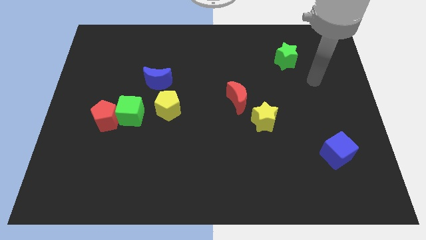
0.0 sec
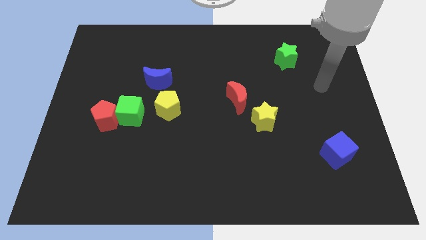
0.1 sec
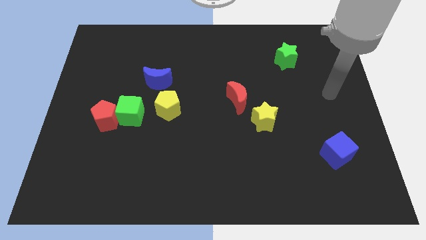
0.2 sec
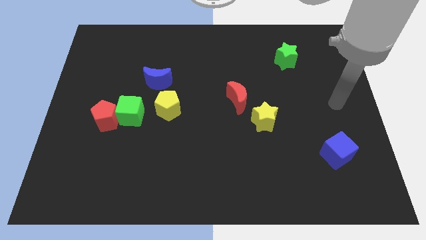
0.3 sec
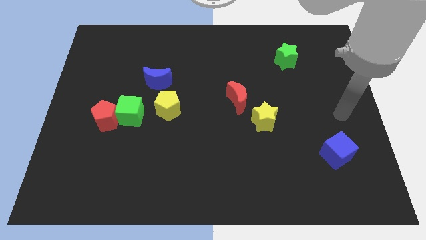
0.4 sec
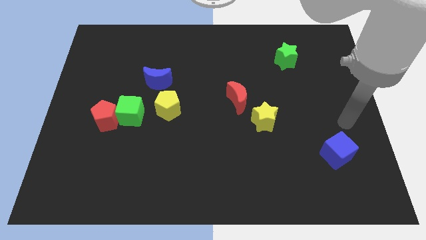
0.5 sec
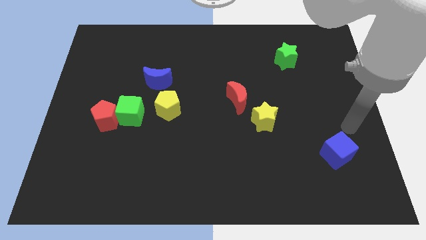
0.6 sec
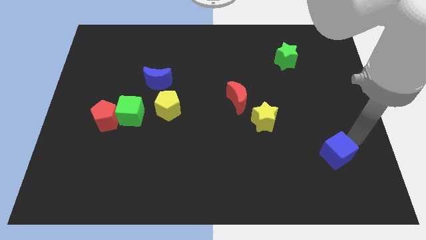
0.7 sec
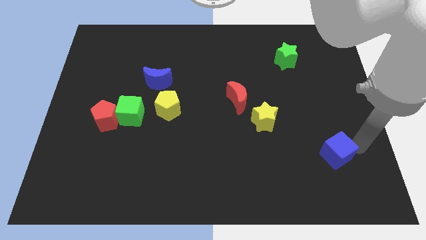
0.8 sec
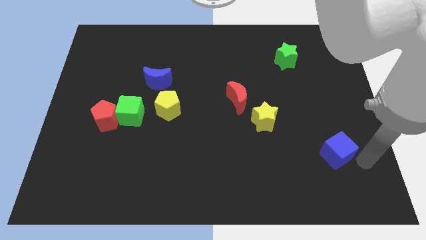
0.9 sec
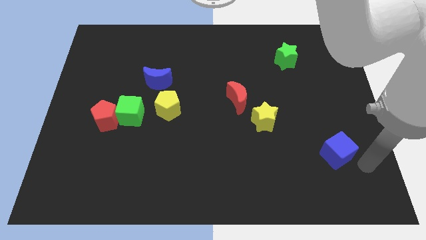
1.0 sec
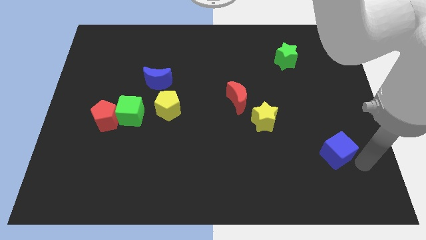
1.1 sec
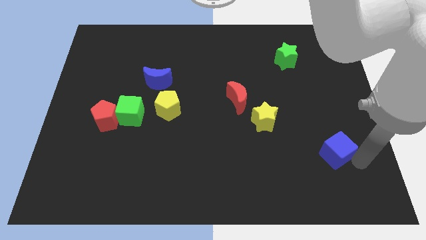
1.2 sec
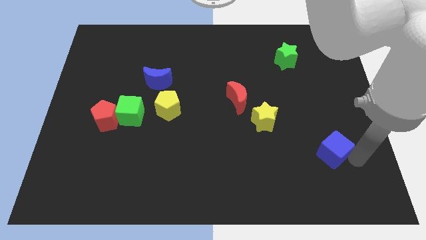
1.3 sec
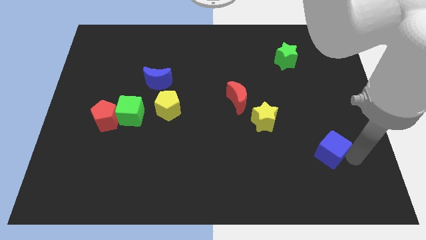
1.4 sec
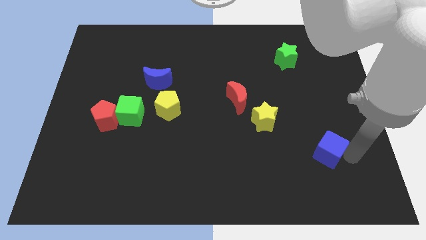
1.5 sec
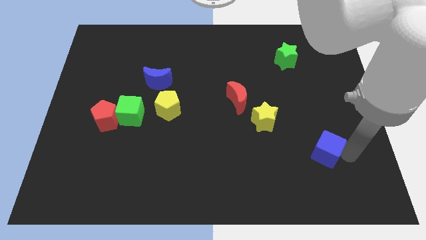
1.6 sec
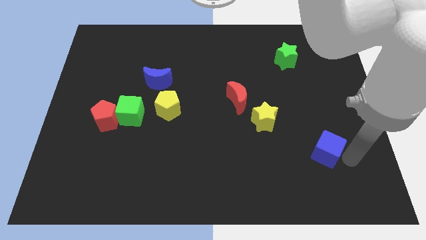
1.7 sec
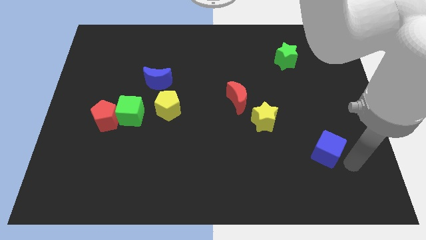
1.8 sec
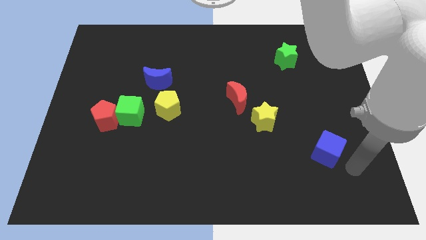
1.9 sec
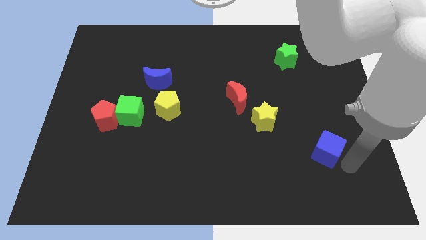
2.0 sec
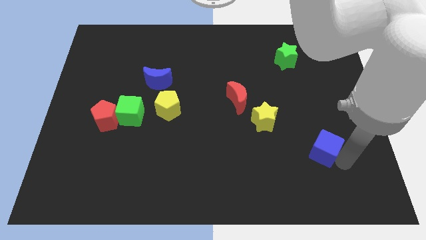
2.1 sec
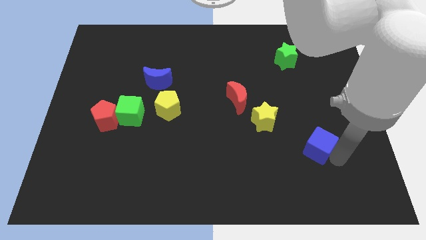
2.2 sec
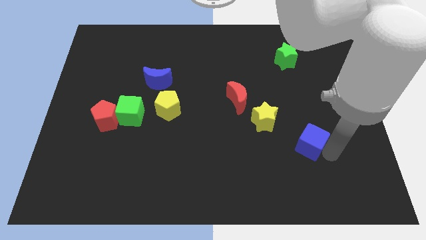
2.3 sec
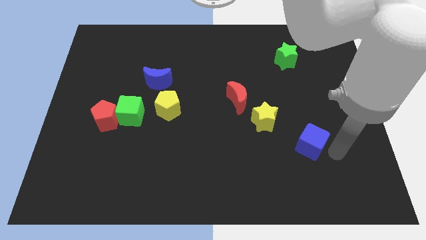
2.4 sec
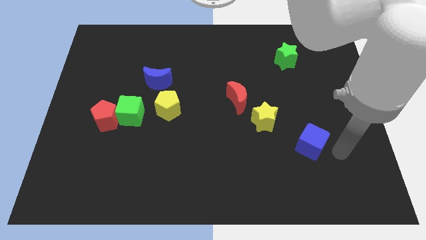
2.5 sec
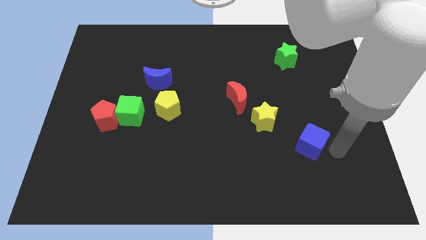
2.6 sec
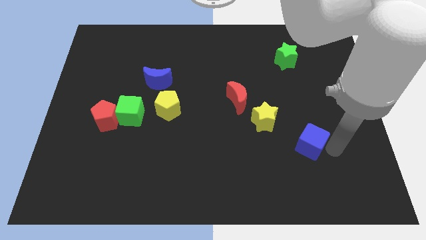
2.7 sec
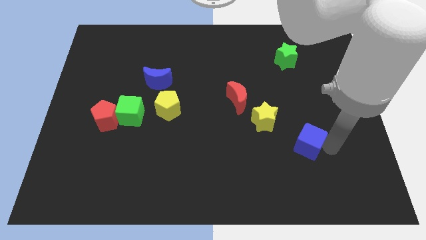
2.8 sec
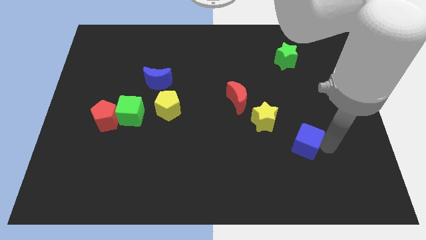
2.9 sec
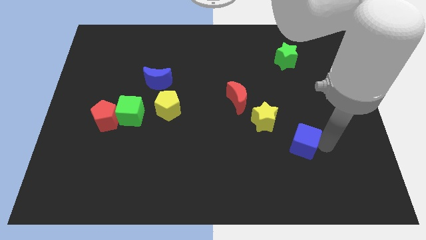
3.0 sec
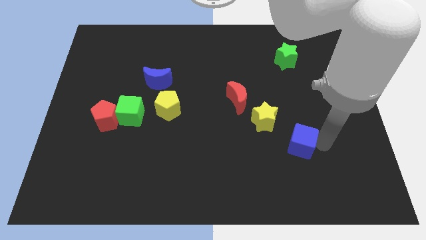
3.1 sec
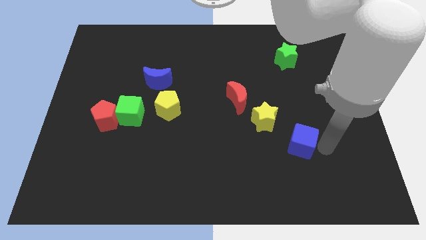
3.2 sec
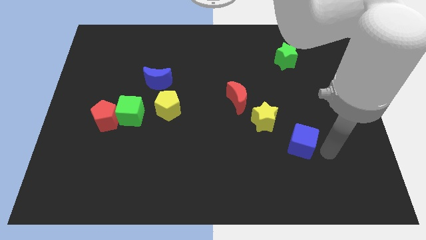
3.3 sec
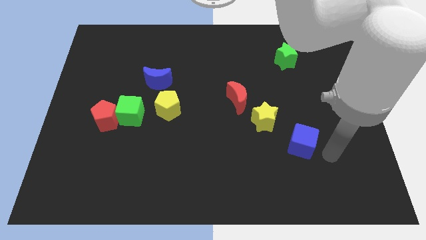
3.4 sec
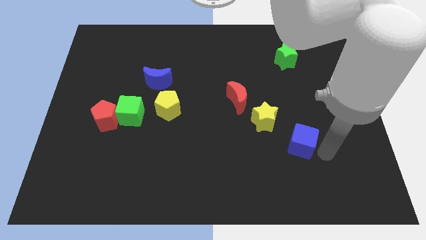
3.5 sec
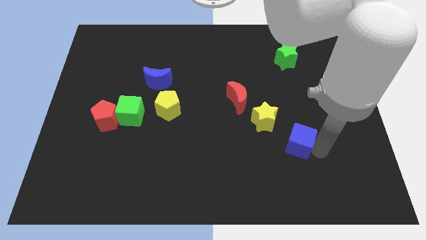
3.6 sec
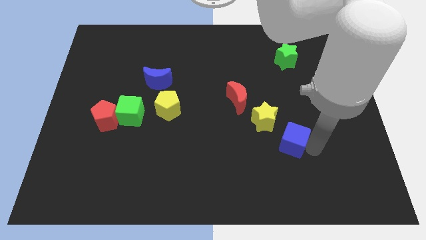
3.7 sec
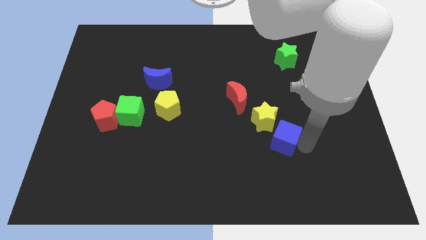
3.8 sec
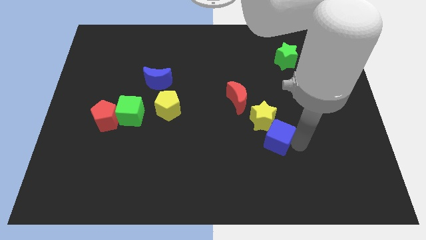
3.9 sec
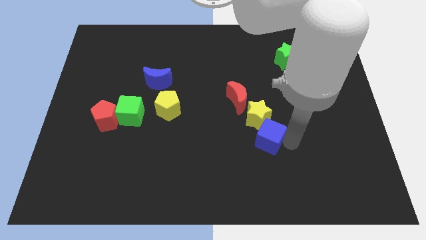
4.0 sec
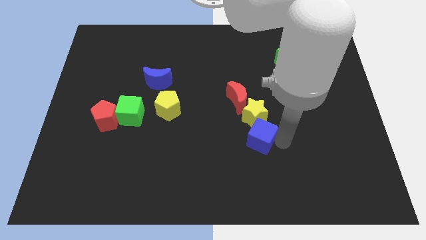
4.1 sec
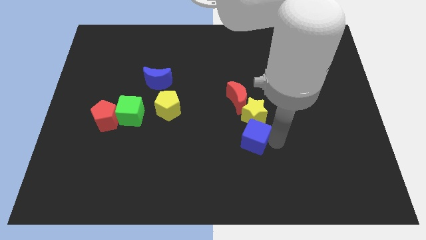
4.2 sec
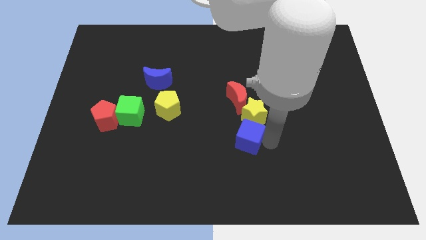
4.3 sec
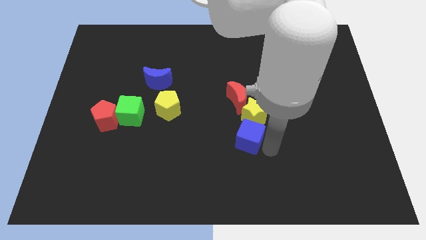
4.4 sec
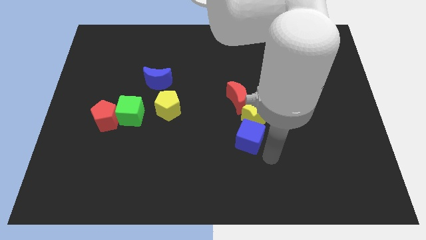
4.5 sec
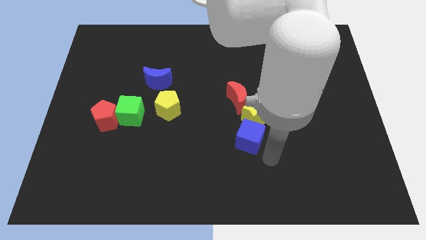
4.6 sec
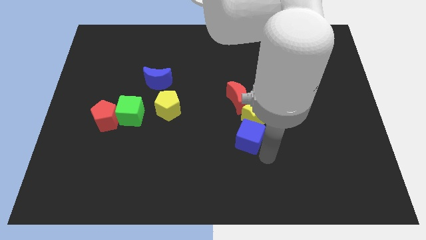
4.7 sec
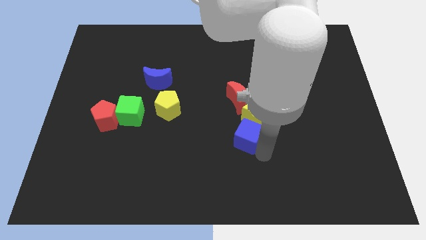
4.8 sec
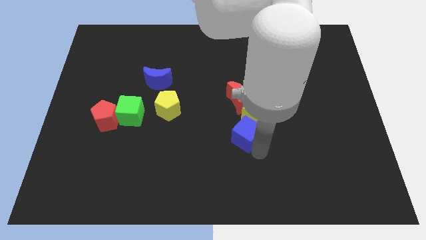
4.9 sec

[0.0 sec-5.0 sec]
put the blue cube to the middle of the board

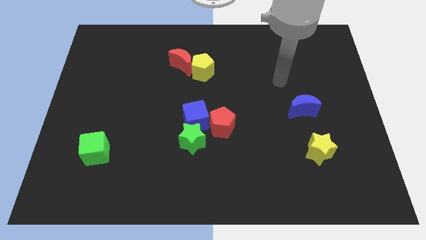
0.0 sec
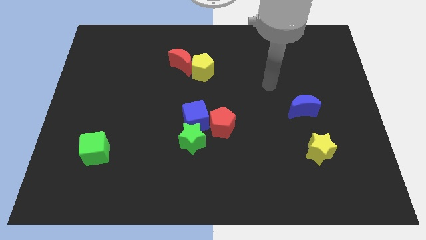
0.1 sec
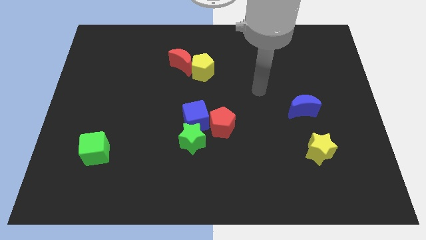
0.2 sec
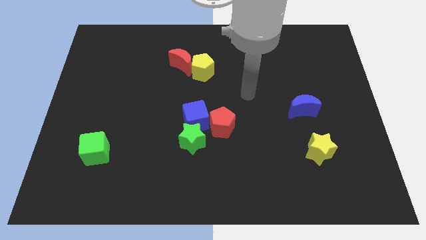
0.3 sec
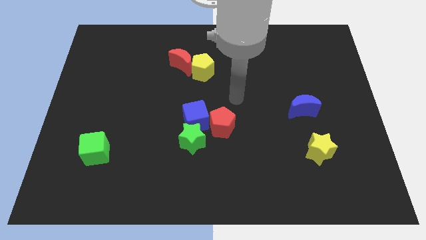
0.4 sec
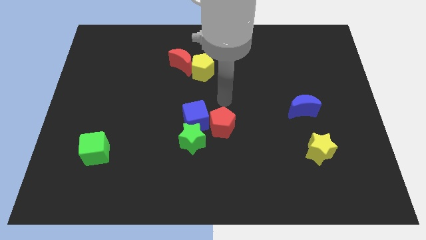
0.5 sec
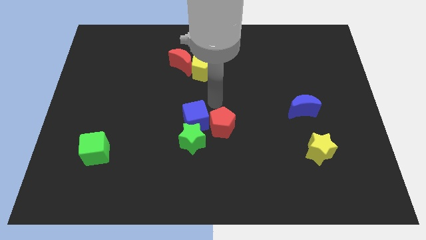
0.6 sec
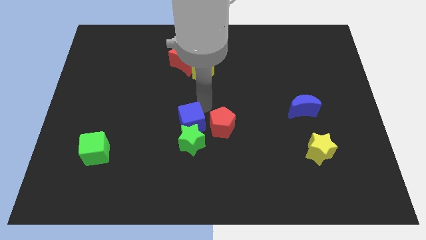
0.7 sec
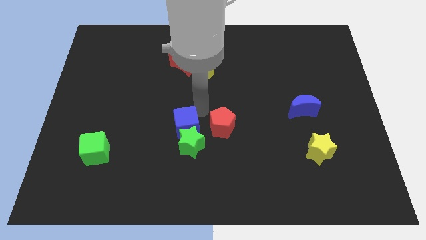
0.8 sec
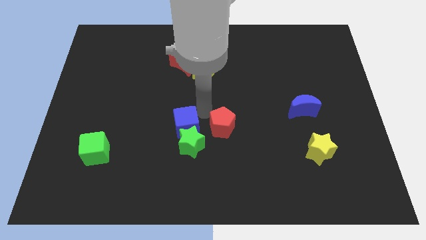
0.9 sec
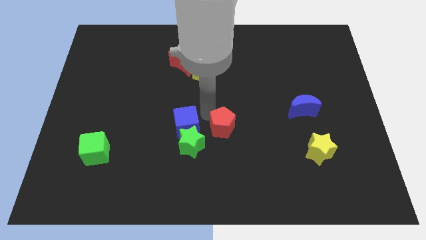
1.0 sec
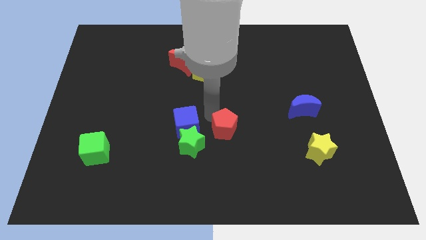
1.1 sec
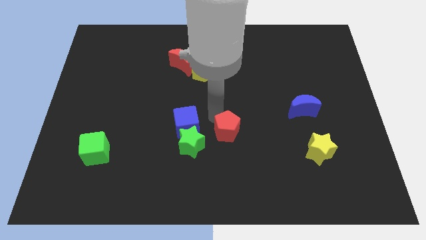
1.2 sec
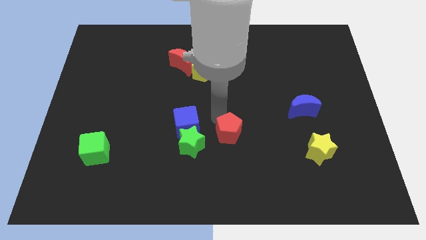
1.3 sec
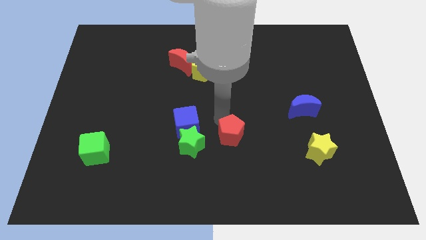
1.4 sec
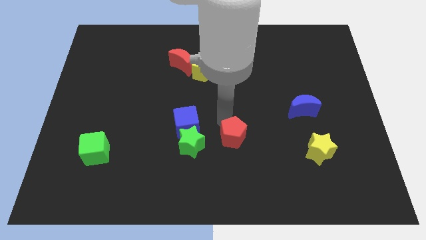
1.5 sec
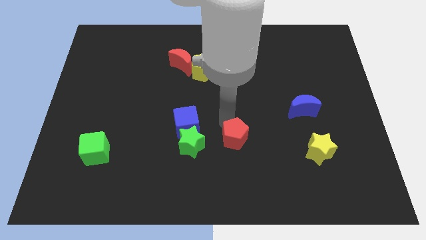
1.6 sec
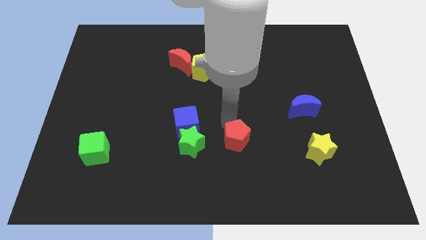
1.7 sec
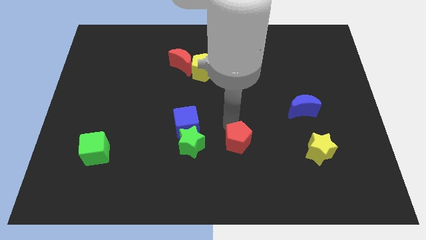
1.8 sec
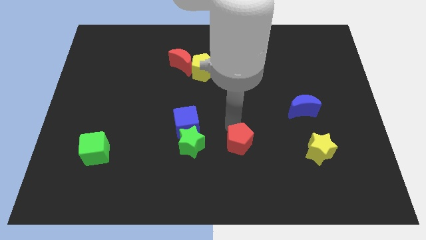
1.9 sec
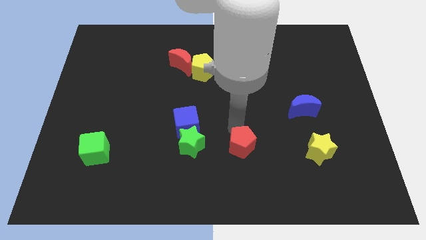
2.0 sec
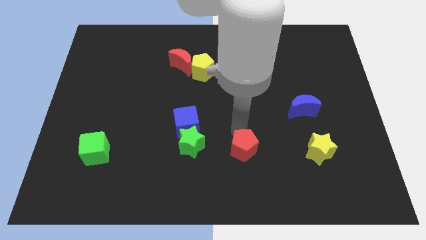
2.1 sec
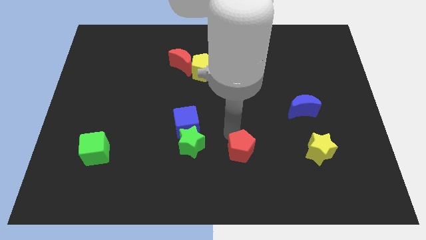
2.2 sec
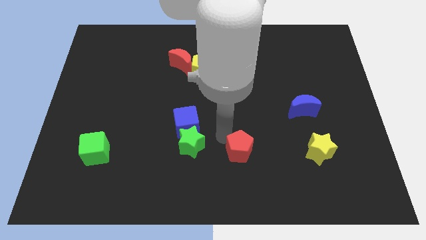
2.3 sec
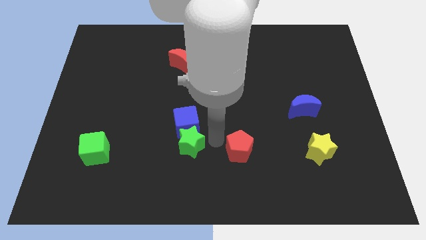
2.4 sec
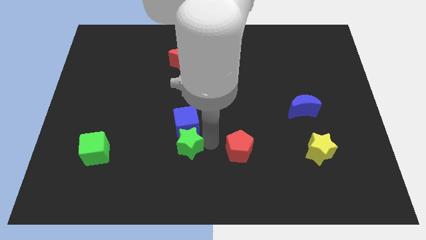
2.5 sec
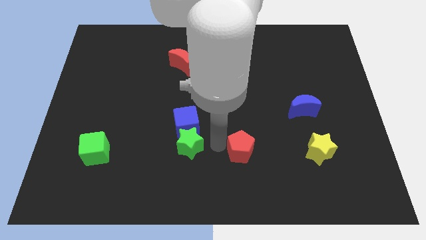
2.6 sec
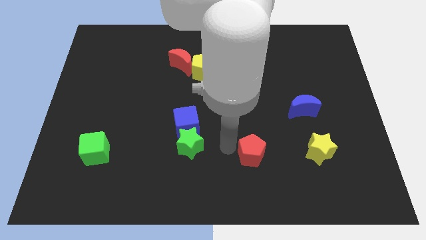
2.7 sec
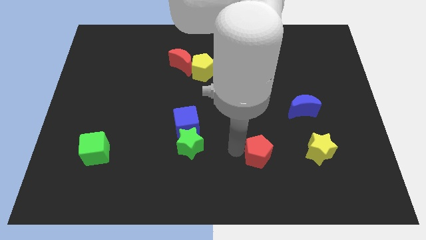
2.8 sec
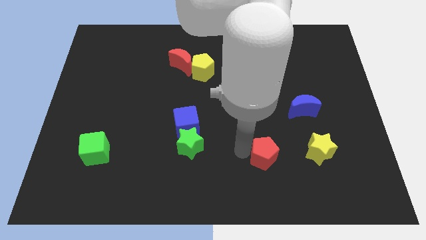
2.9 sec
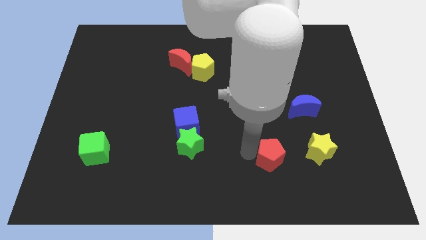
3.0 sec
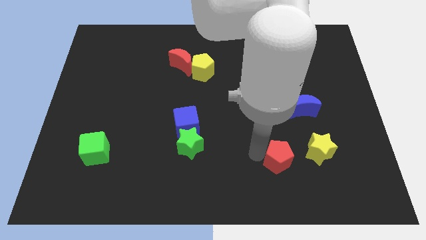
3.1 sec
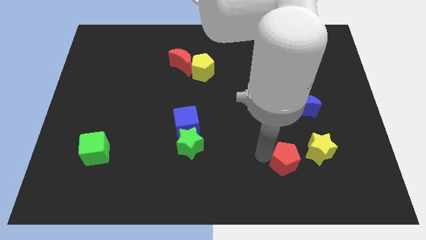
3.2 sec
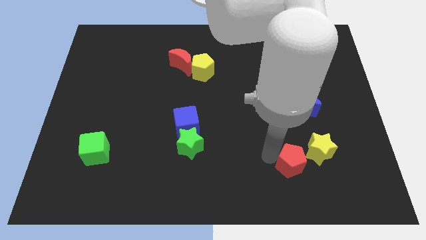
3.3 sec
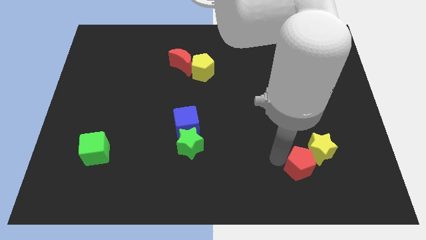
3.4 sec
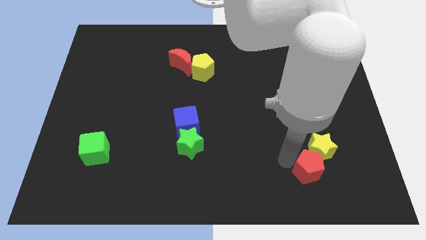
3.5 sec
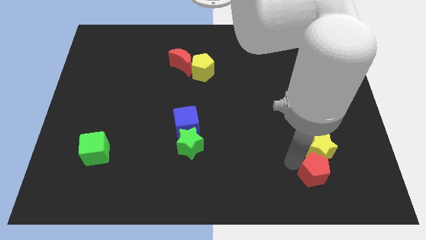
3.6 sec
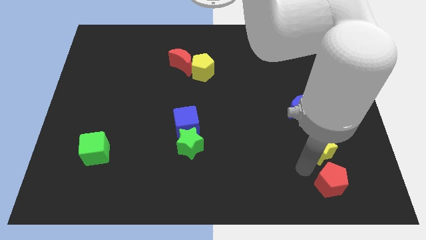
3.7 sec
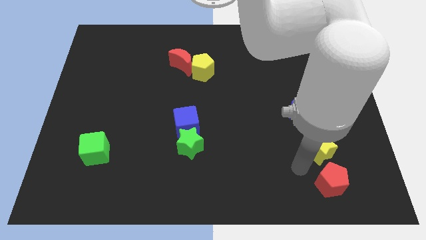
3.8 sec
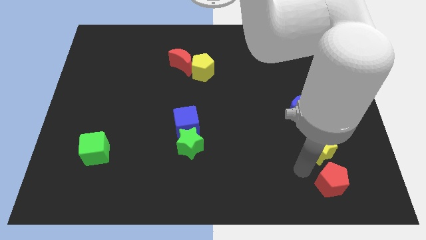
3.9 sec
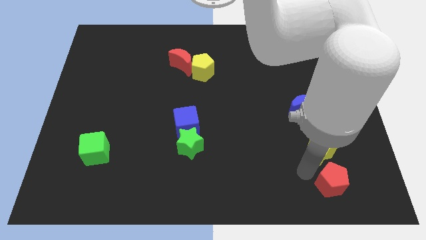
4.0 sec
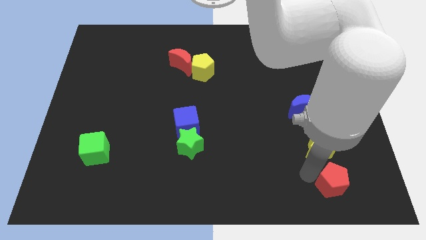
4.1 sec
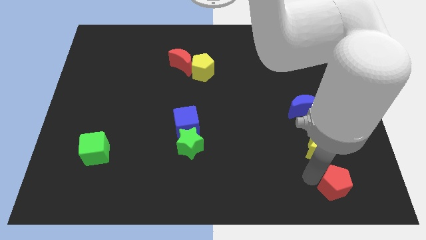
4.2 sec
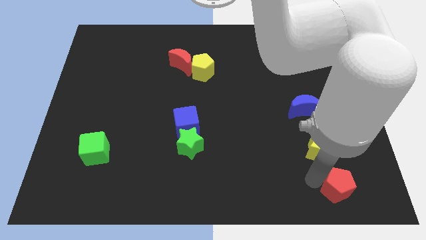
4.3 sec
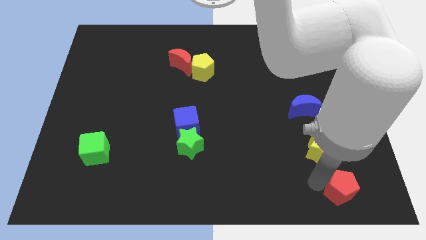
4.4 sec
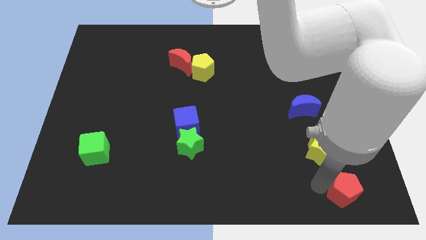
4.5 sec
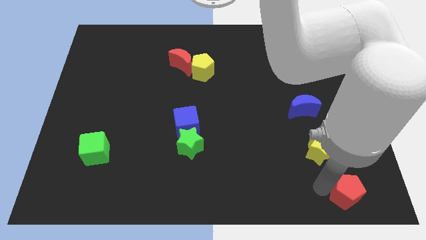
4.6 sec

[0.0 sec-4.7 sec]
slide the red pentagon to the lower right corner
